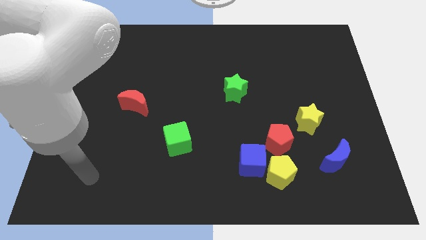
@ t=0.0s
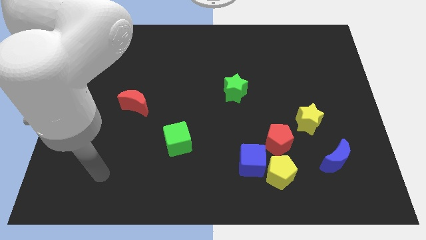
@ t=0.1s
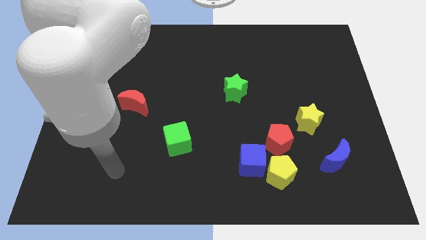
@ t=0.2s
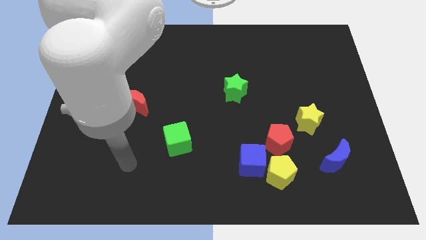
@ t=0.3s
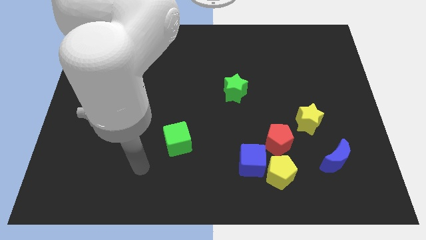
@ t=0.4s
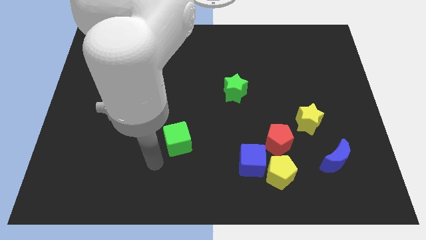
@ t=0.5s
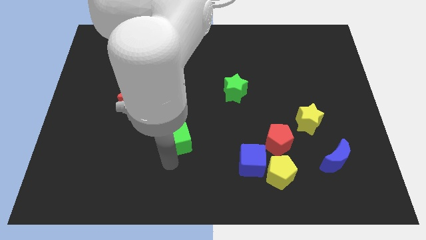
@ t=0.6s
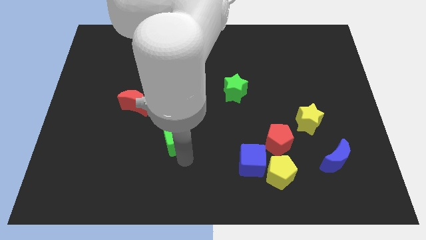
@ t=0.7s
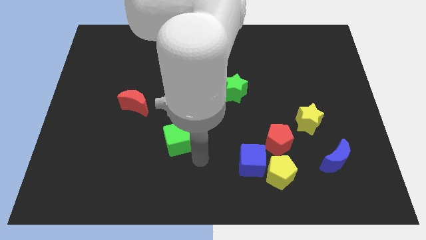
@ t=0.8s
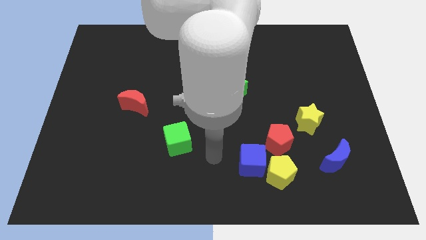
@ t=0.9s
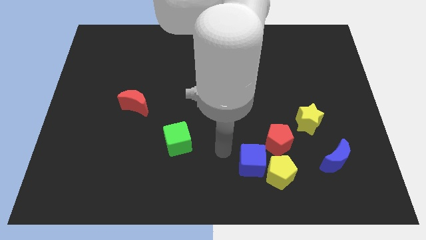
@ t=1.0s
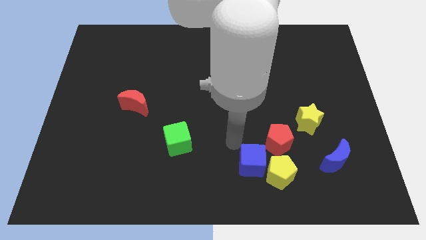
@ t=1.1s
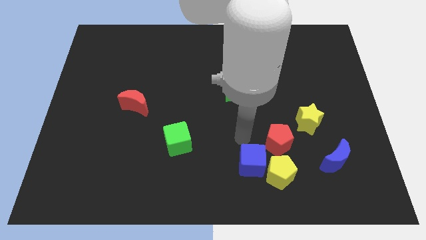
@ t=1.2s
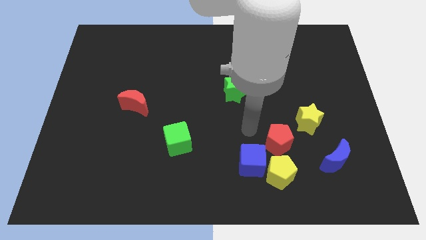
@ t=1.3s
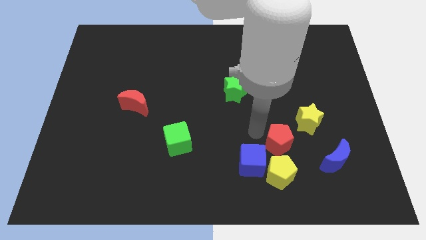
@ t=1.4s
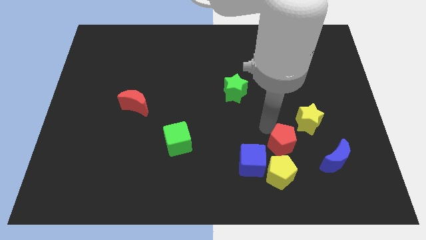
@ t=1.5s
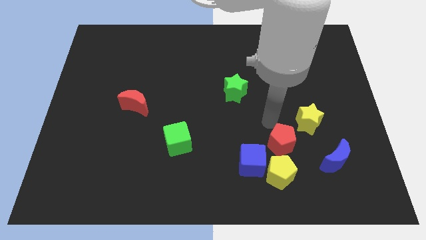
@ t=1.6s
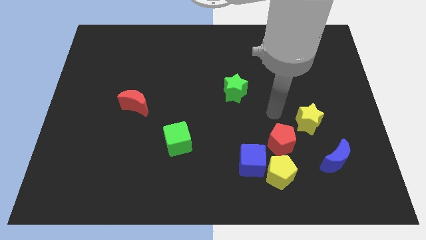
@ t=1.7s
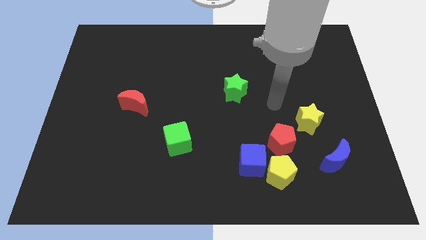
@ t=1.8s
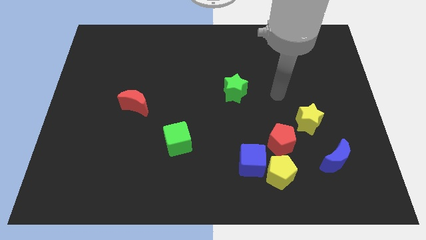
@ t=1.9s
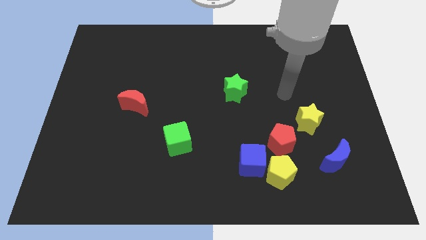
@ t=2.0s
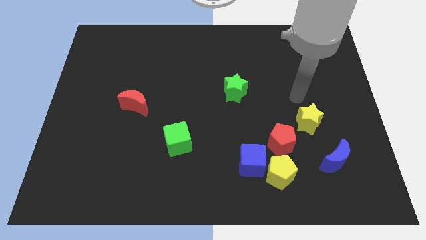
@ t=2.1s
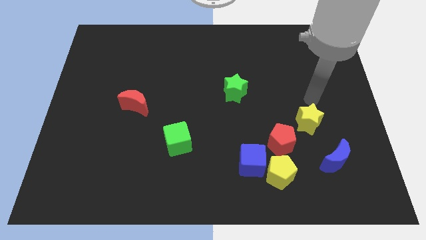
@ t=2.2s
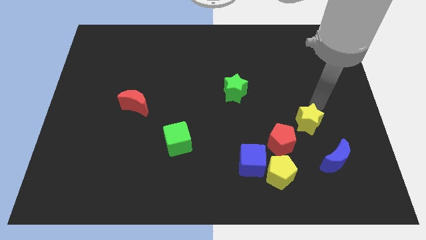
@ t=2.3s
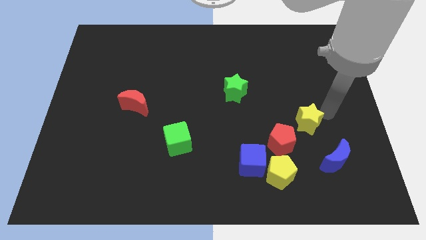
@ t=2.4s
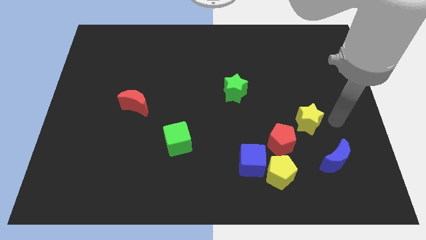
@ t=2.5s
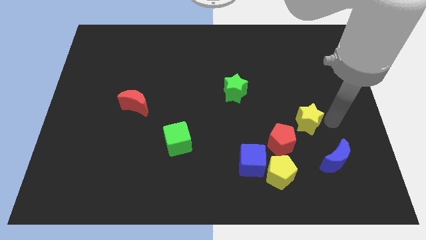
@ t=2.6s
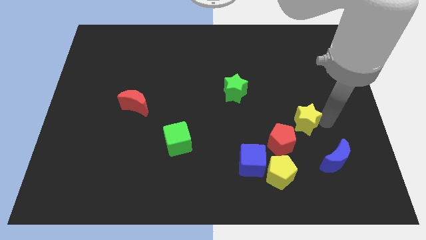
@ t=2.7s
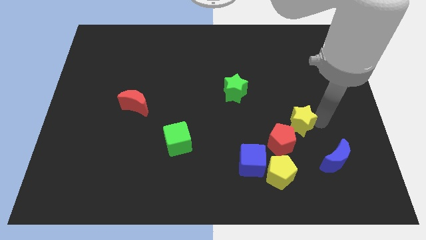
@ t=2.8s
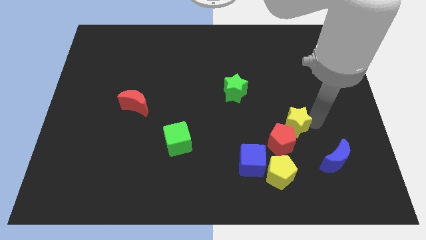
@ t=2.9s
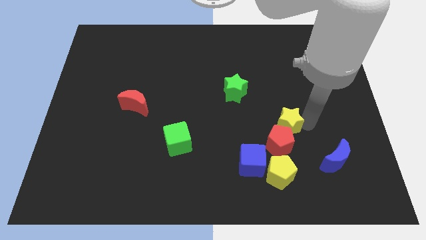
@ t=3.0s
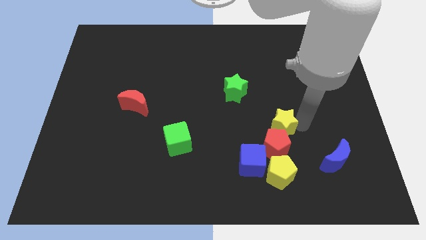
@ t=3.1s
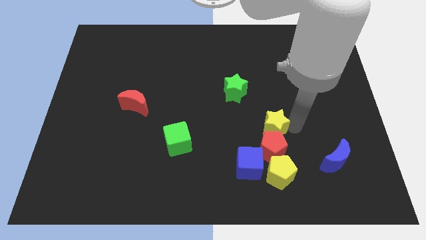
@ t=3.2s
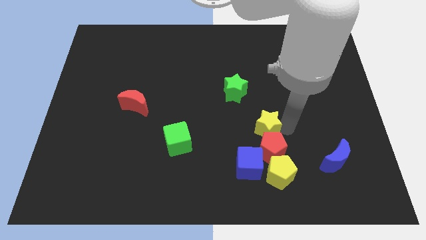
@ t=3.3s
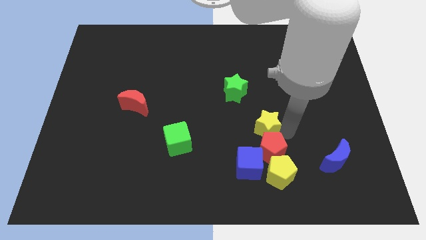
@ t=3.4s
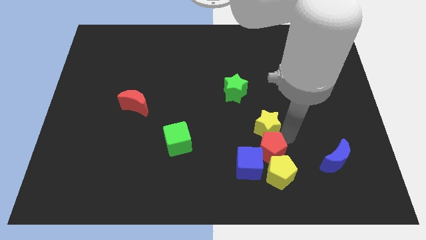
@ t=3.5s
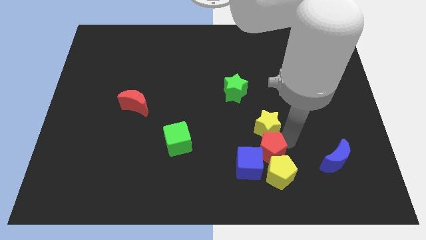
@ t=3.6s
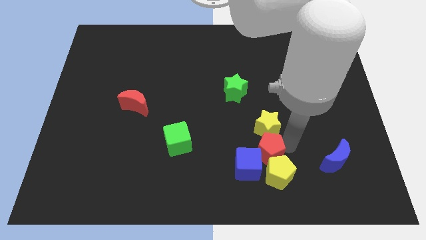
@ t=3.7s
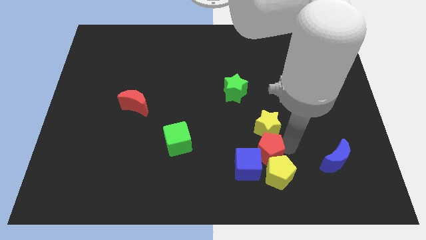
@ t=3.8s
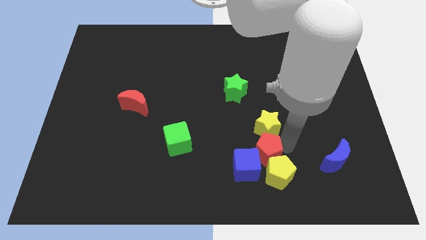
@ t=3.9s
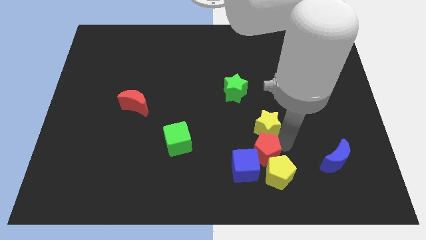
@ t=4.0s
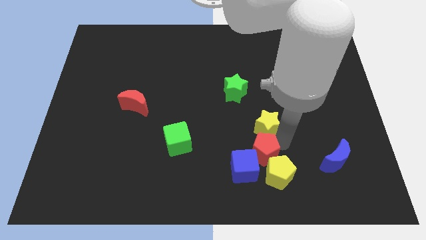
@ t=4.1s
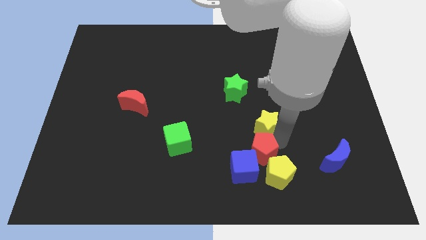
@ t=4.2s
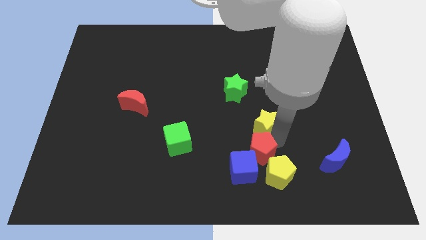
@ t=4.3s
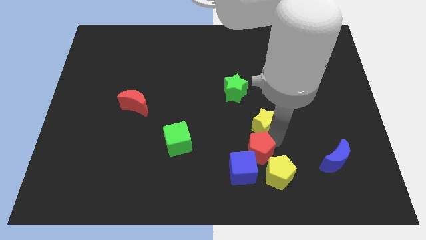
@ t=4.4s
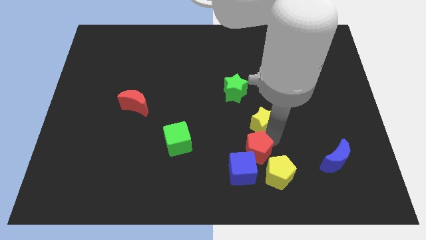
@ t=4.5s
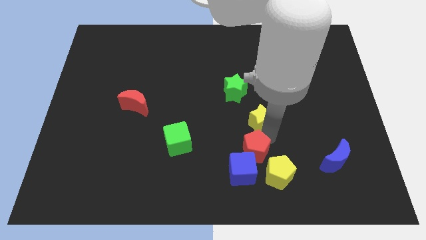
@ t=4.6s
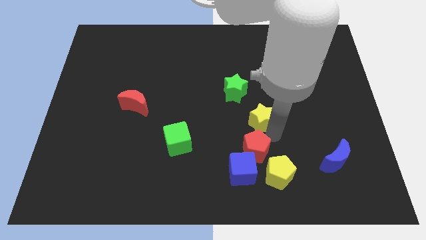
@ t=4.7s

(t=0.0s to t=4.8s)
put the yellow star to the center of the board

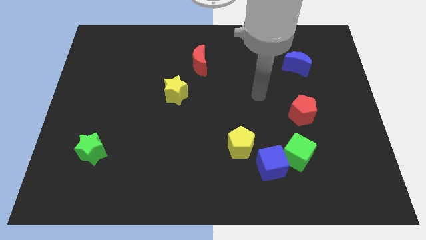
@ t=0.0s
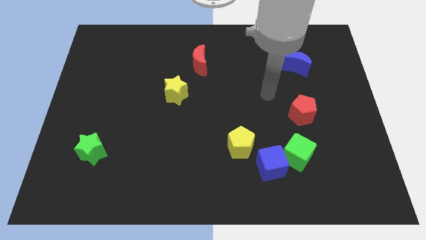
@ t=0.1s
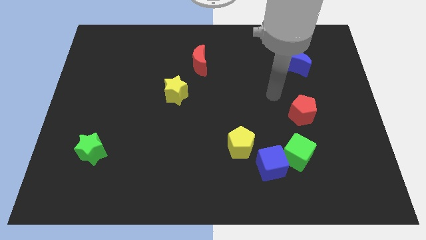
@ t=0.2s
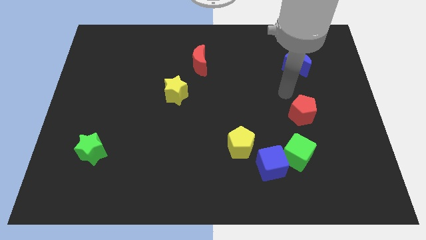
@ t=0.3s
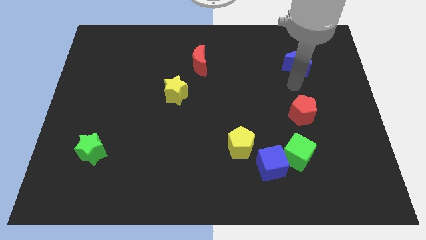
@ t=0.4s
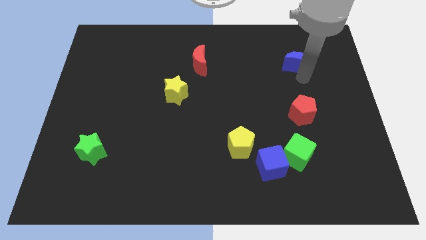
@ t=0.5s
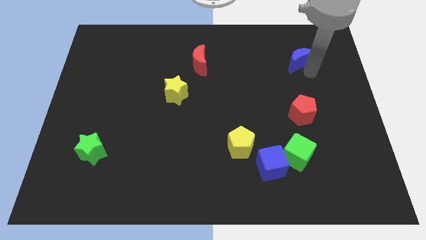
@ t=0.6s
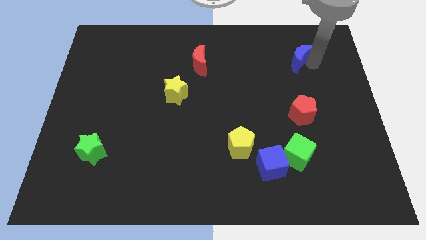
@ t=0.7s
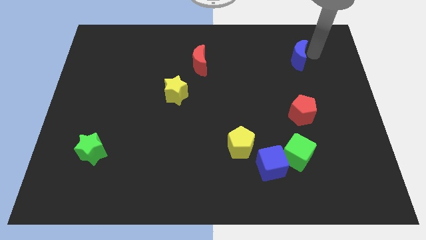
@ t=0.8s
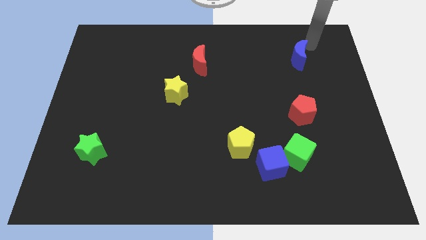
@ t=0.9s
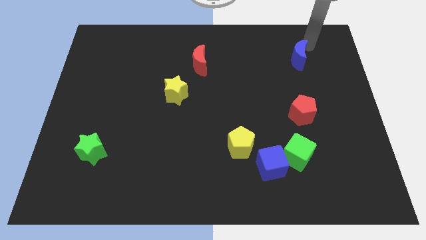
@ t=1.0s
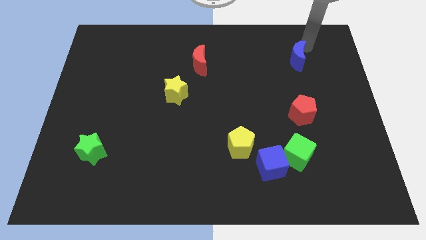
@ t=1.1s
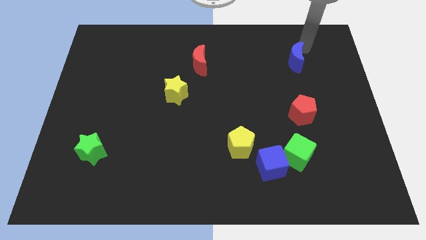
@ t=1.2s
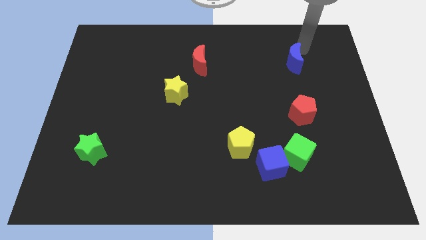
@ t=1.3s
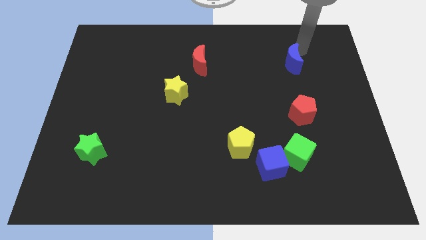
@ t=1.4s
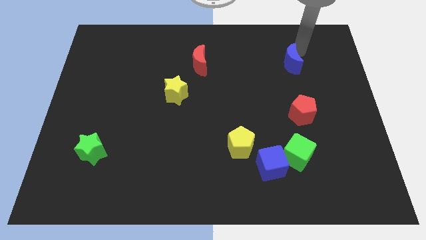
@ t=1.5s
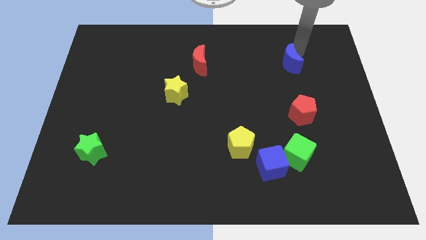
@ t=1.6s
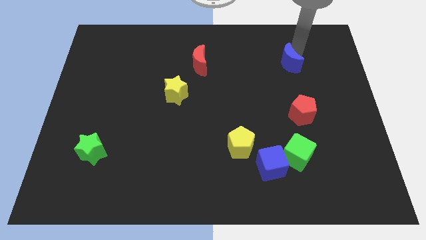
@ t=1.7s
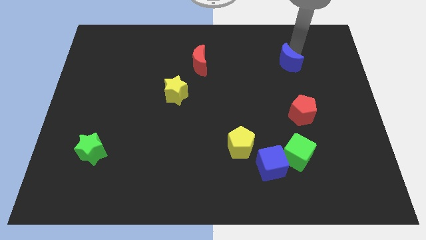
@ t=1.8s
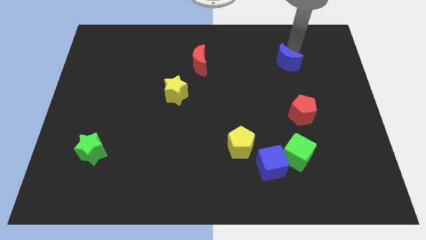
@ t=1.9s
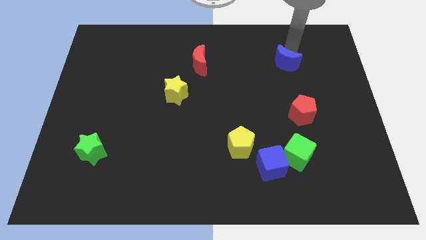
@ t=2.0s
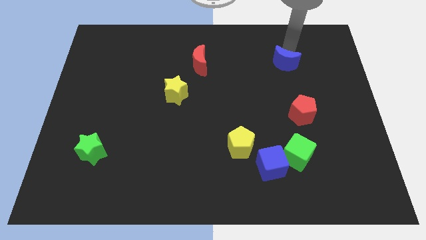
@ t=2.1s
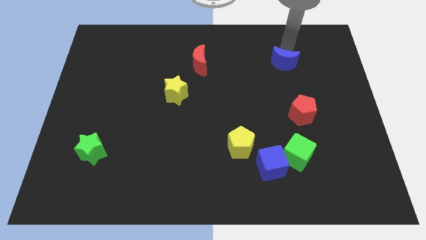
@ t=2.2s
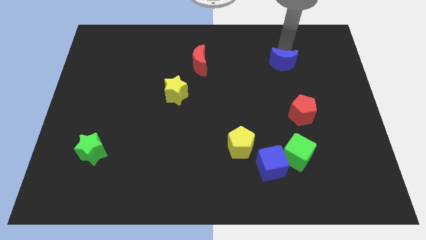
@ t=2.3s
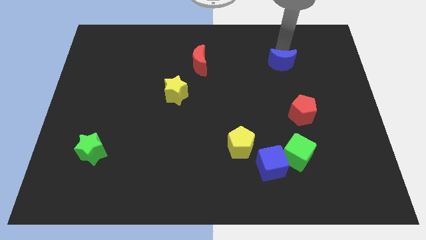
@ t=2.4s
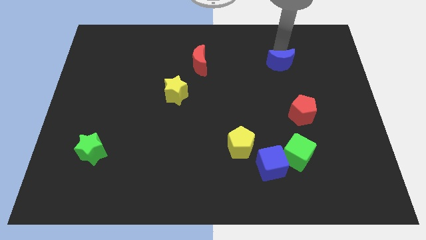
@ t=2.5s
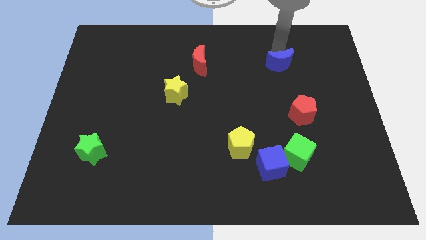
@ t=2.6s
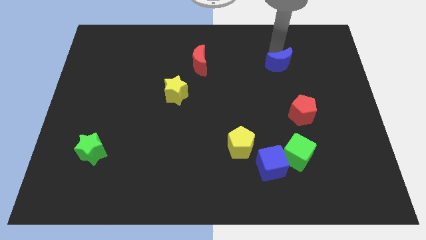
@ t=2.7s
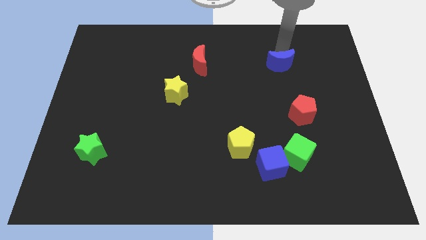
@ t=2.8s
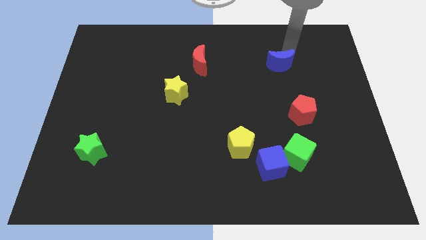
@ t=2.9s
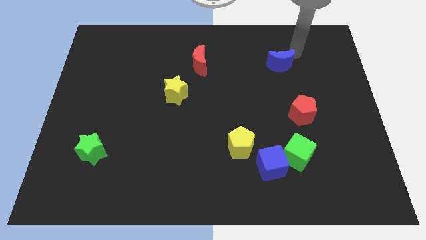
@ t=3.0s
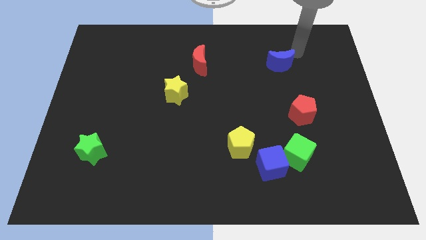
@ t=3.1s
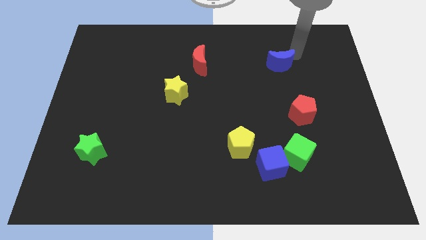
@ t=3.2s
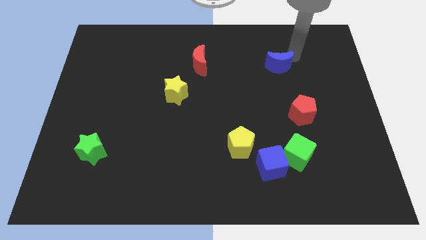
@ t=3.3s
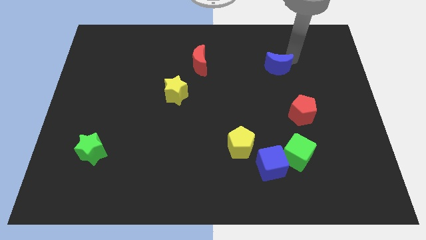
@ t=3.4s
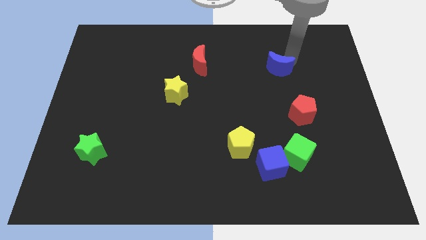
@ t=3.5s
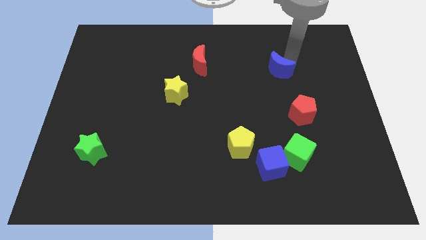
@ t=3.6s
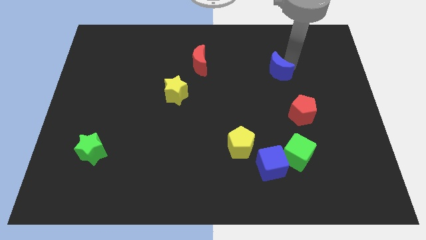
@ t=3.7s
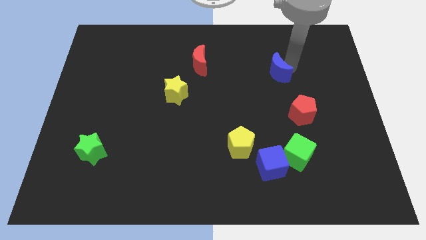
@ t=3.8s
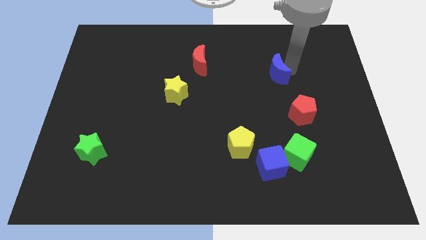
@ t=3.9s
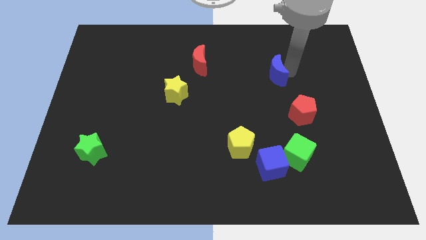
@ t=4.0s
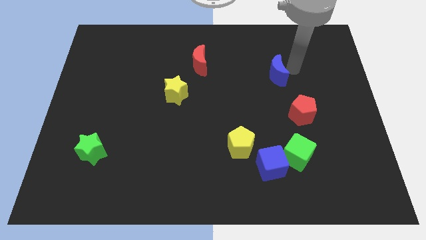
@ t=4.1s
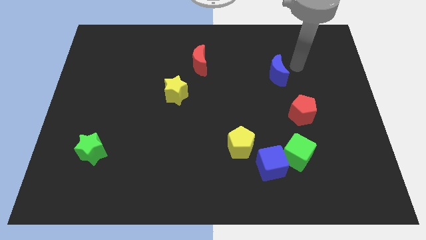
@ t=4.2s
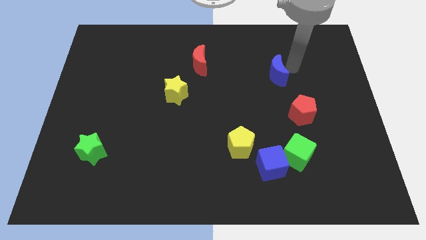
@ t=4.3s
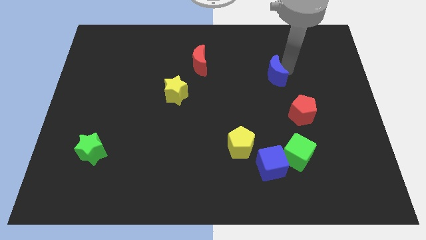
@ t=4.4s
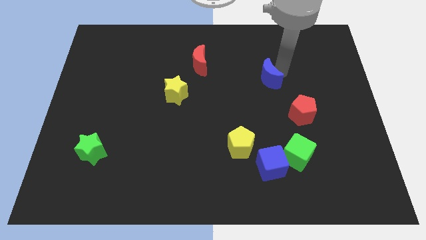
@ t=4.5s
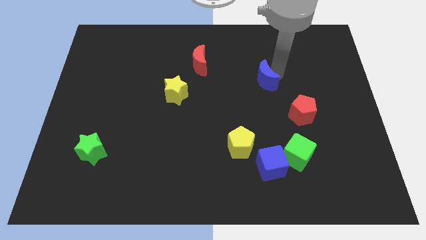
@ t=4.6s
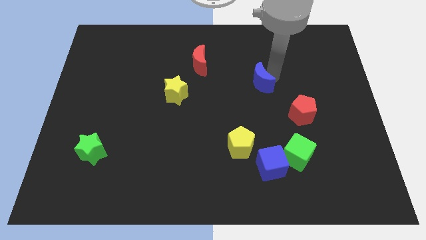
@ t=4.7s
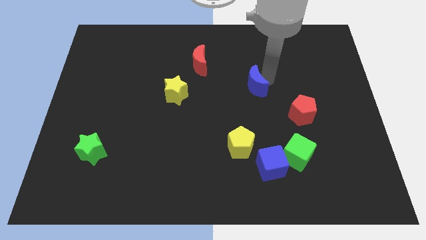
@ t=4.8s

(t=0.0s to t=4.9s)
slide the blue moon to the center of the board
